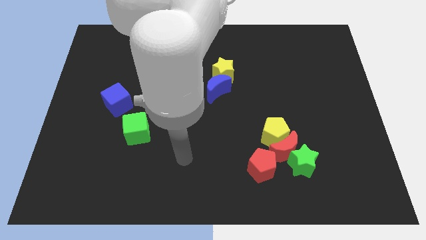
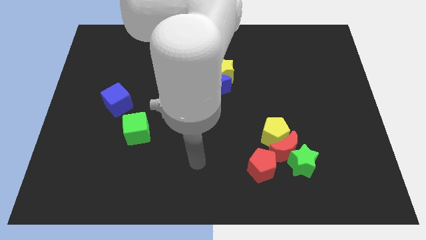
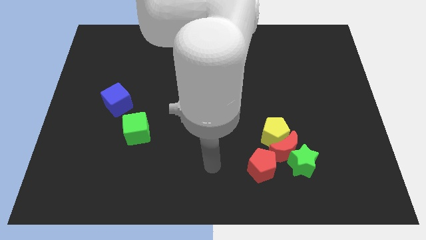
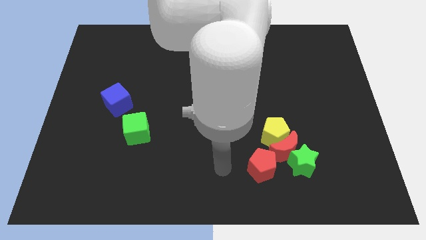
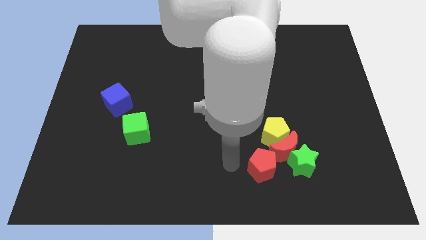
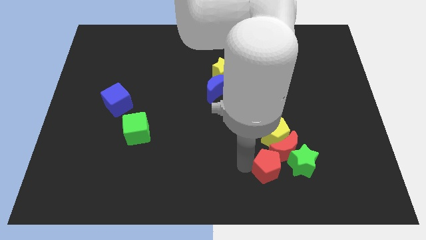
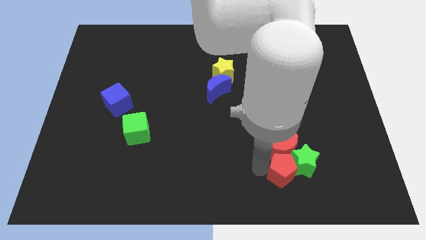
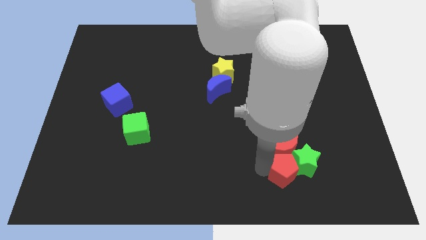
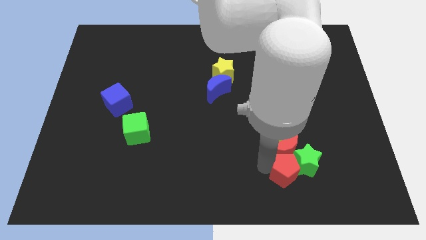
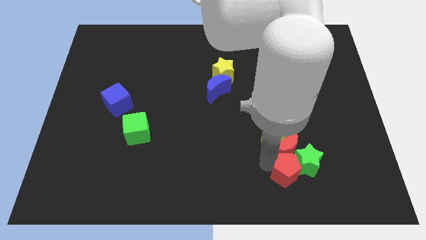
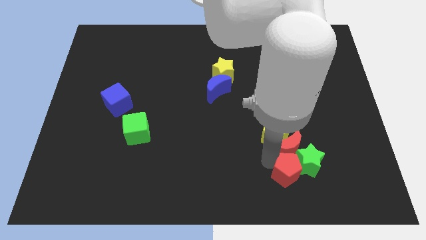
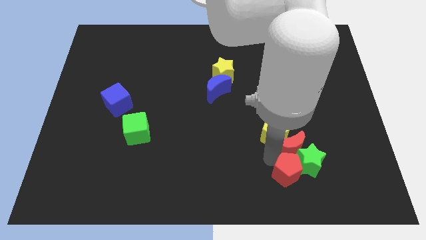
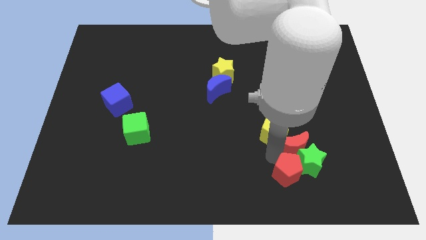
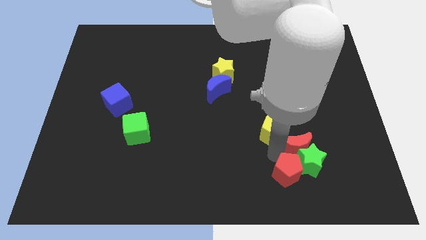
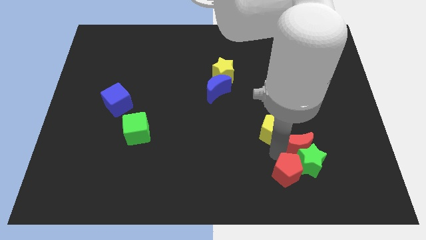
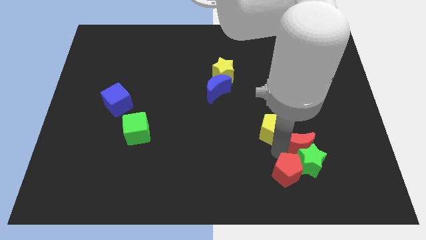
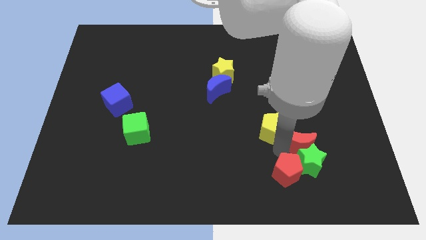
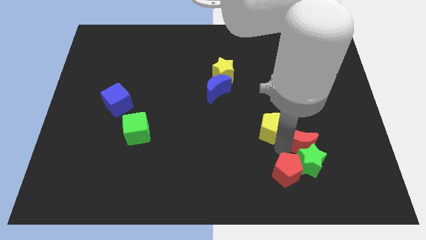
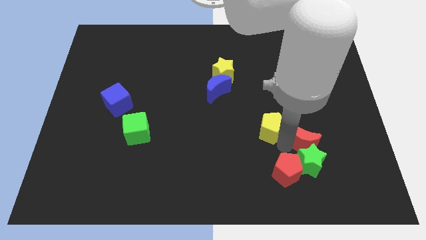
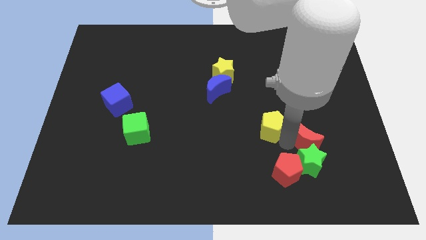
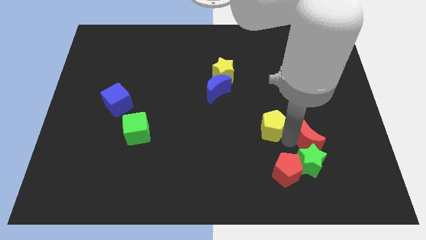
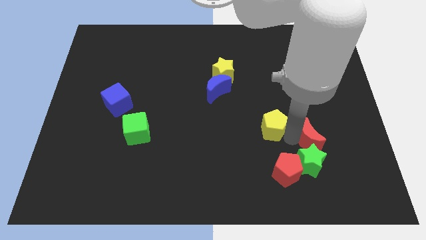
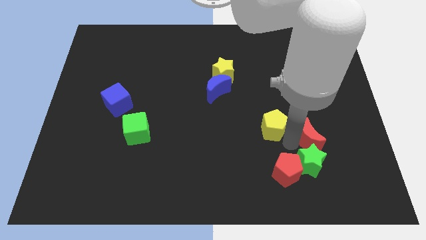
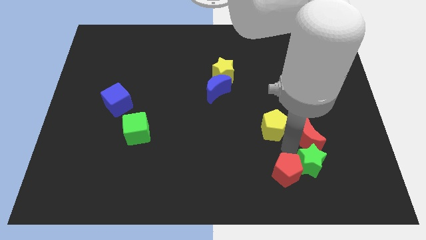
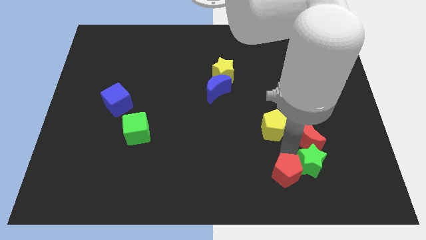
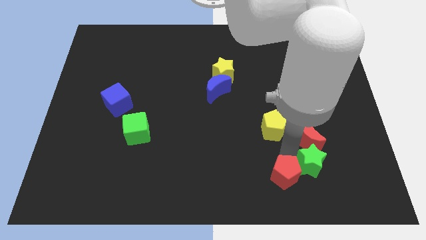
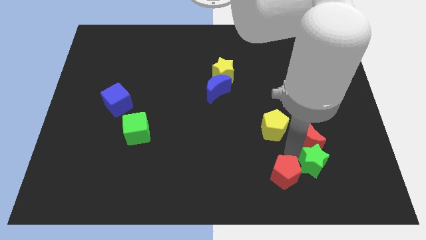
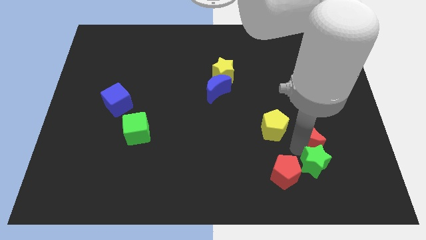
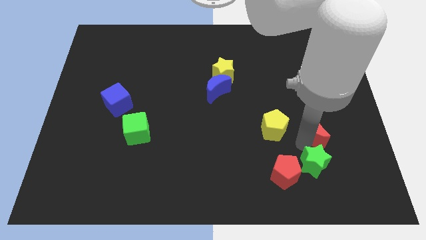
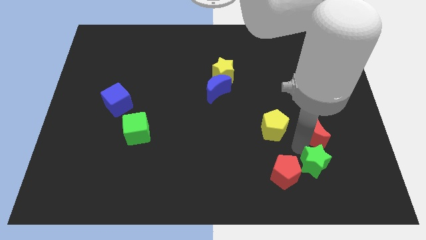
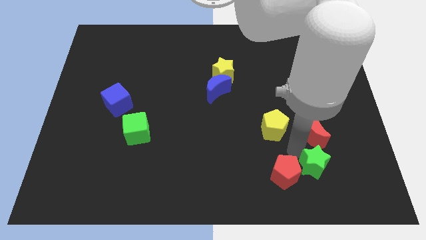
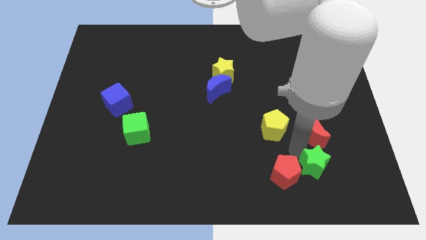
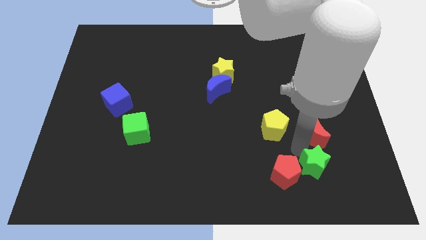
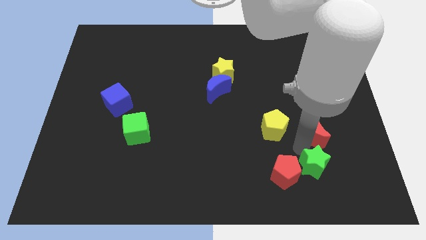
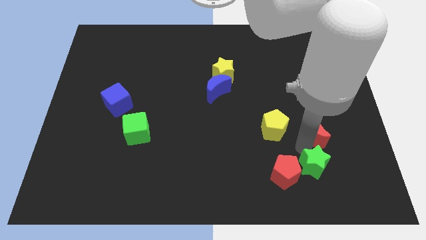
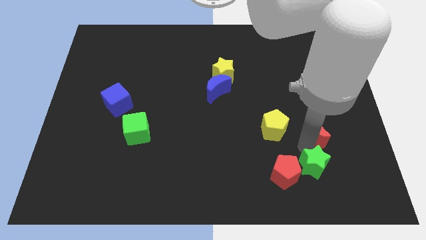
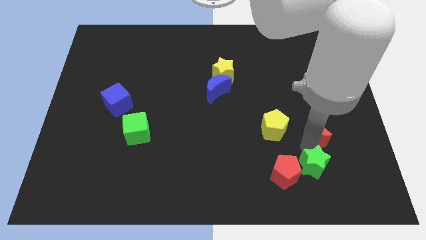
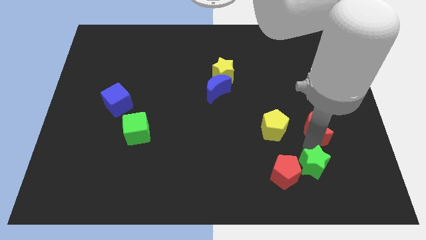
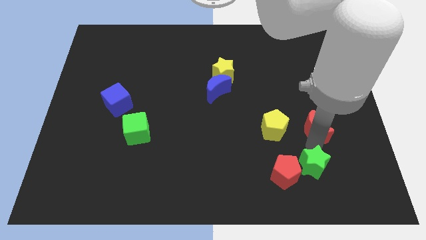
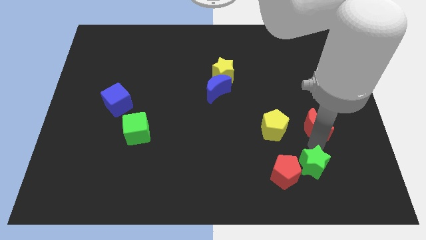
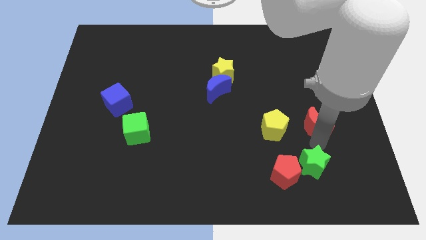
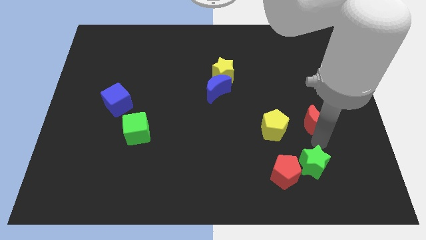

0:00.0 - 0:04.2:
separate the red moon from the group of blocks

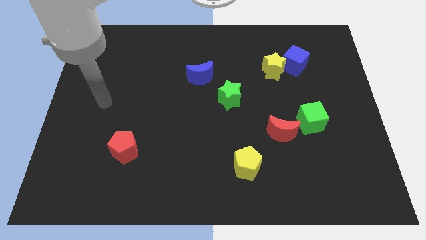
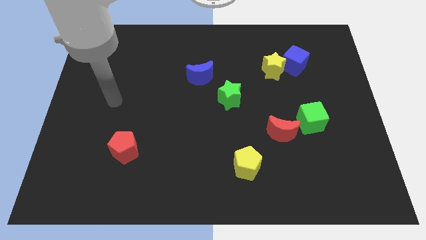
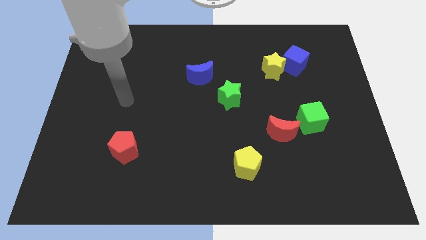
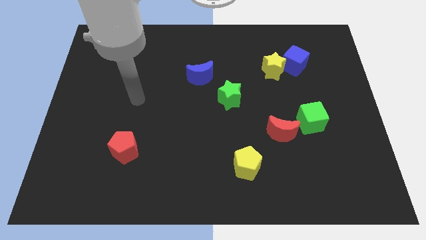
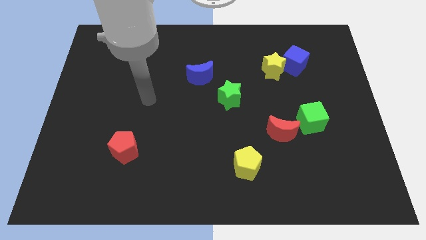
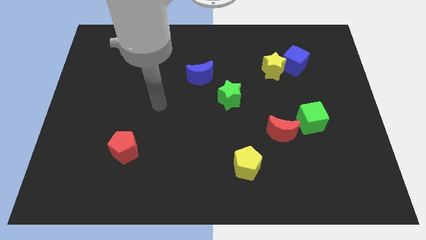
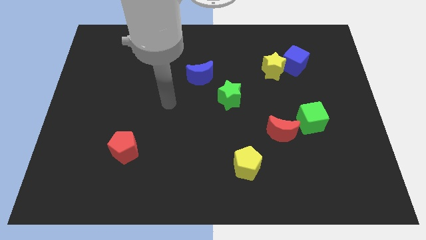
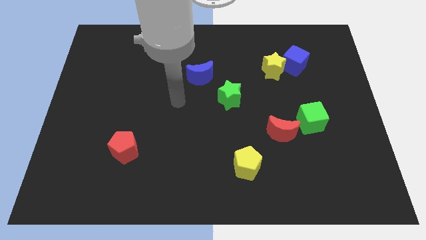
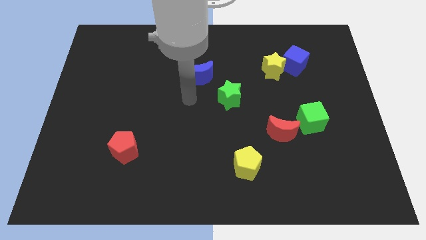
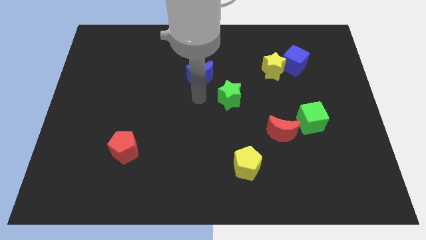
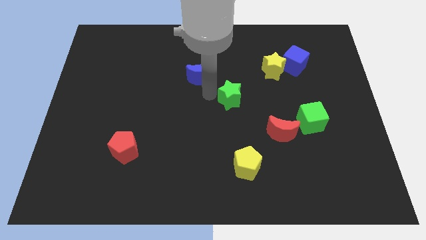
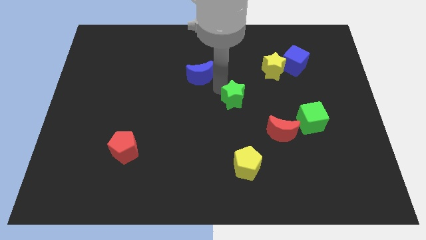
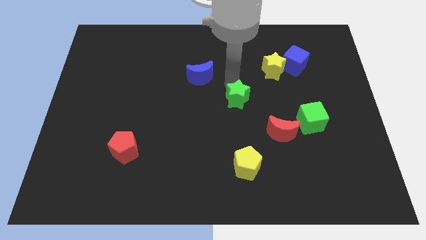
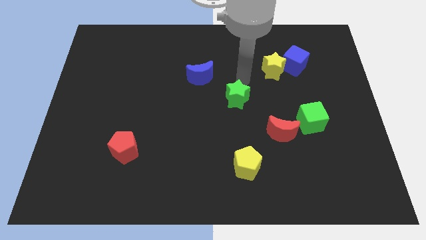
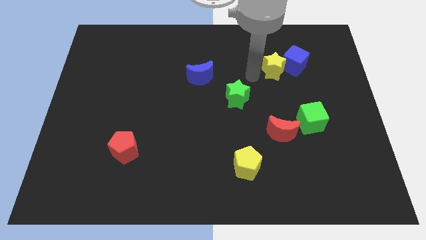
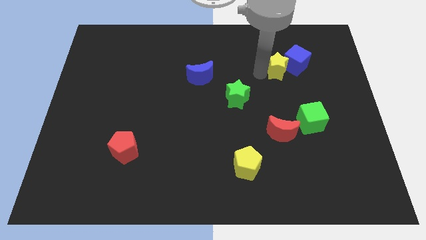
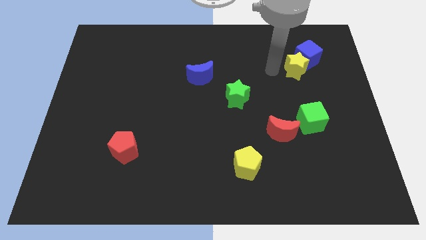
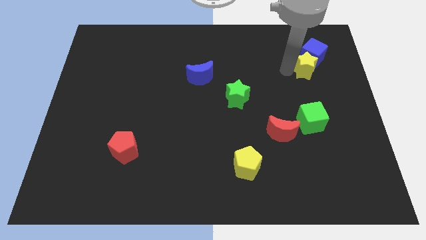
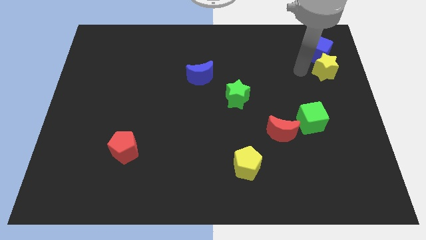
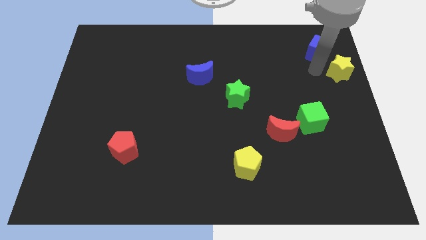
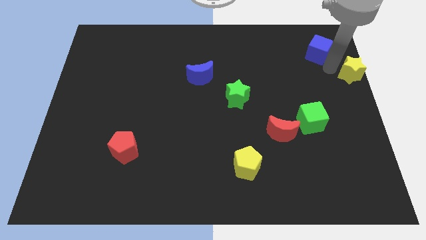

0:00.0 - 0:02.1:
move the blue cube away from the yellow star

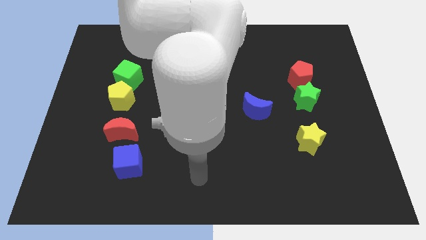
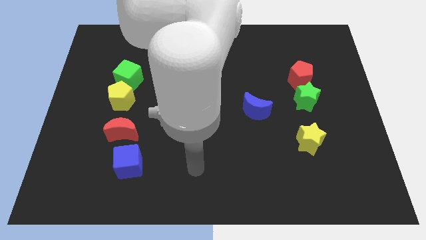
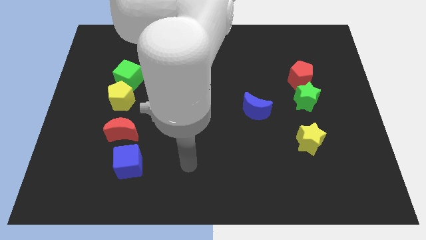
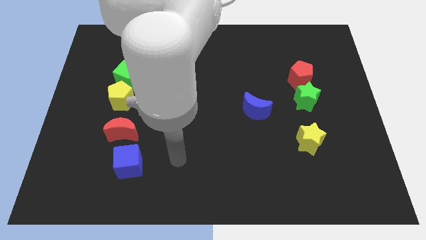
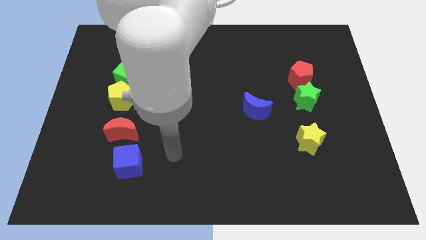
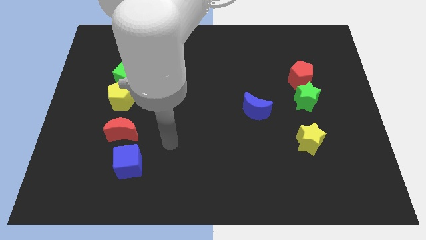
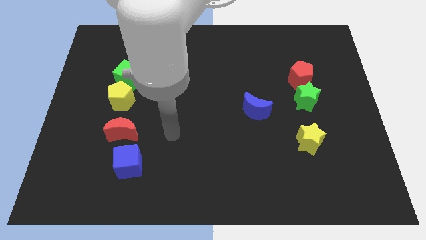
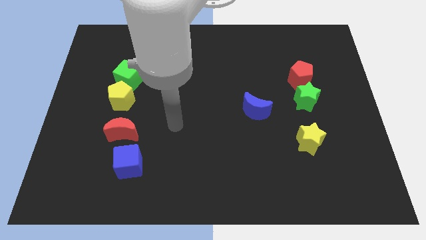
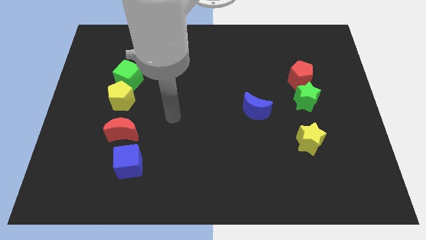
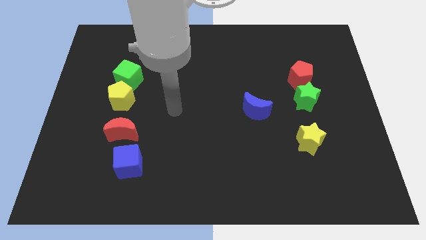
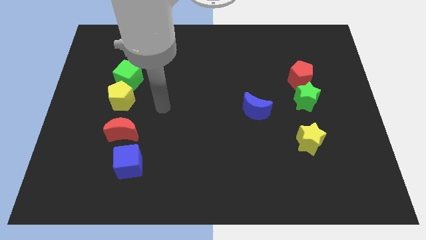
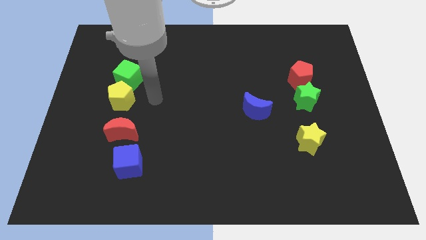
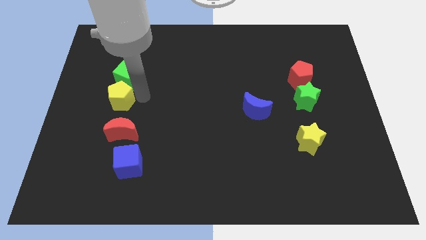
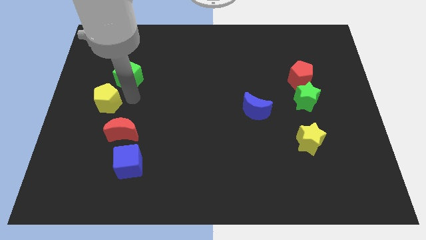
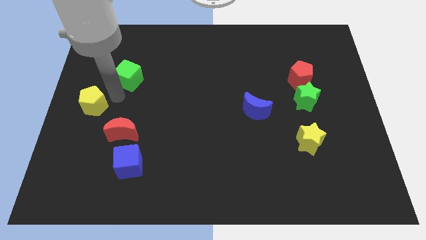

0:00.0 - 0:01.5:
separate the green cube from the yellow pentagon

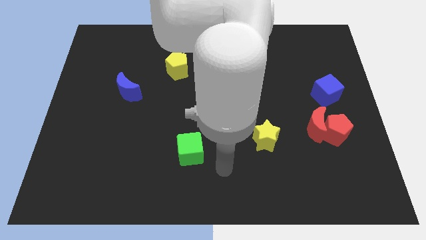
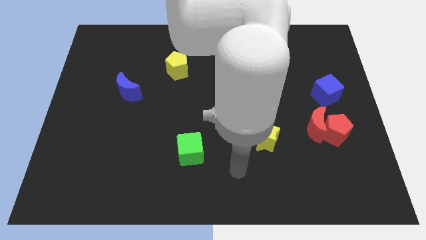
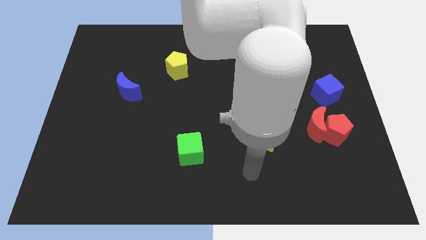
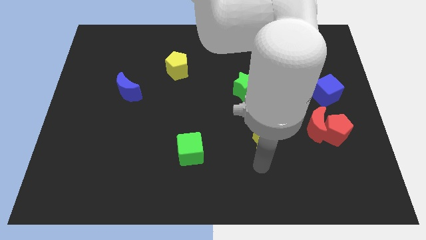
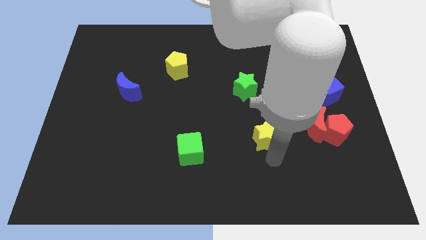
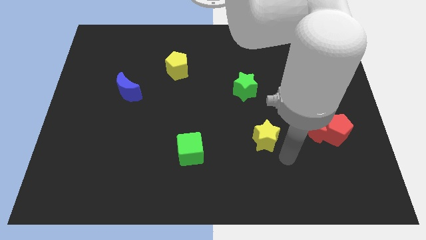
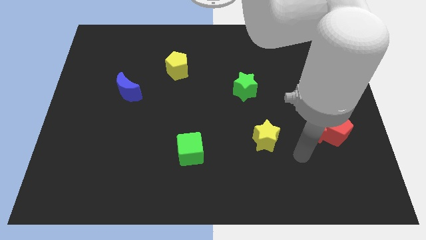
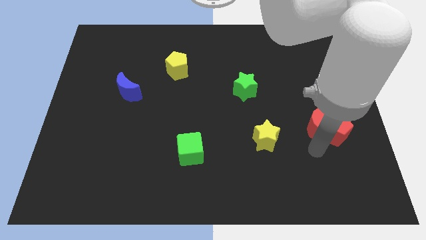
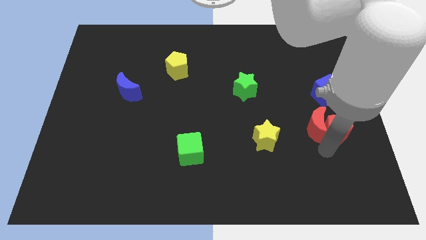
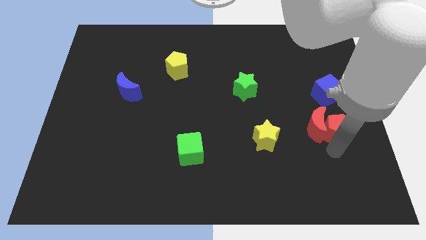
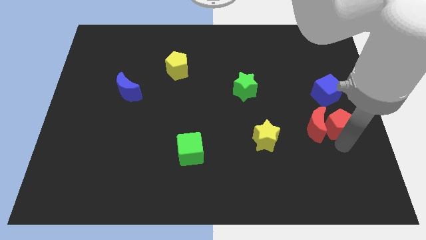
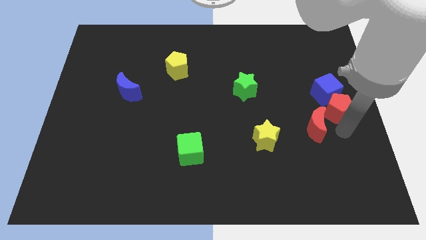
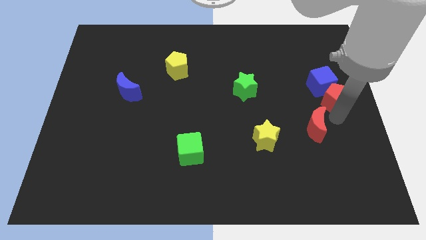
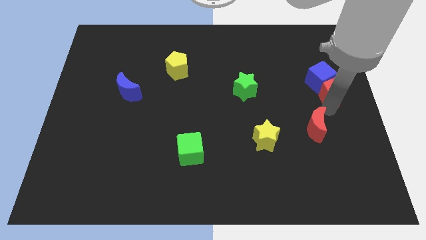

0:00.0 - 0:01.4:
move the red moon away from the red pentagon

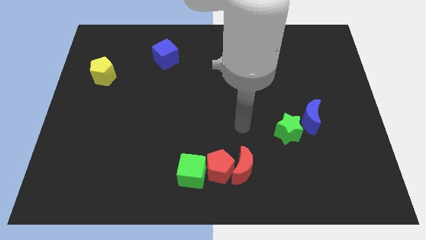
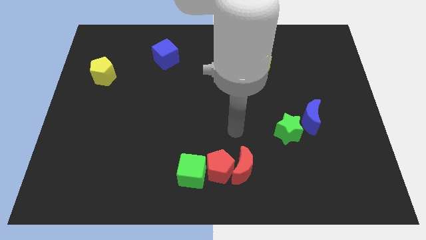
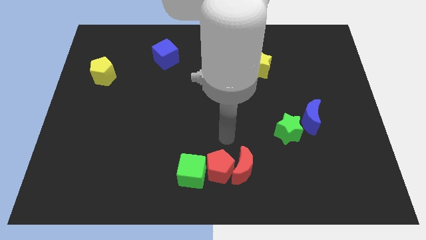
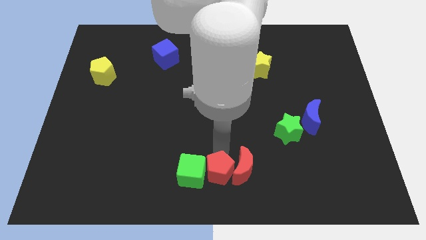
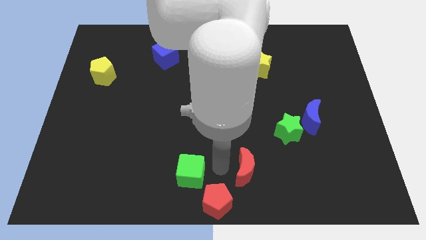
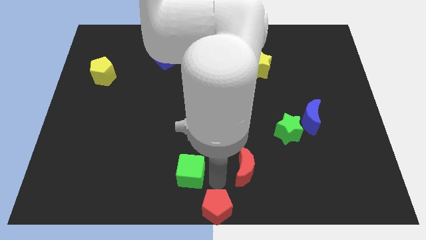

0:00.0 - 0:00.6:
separate the red moon from the red pentagon
